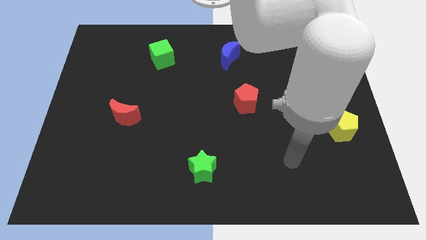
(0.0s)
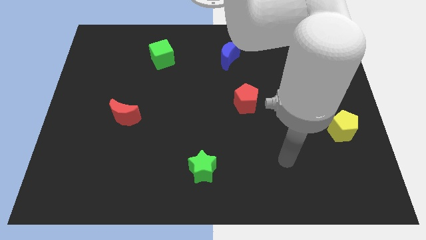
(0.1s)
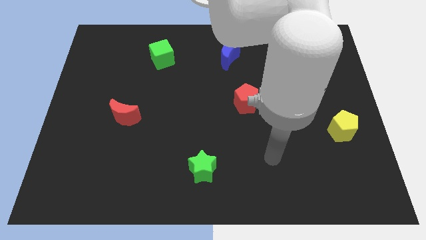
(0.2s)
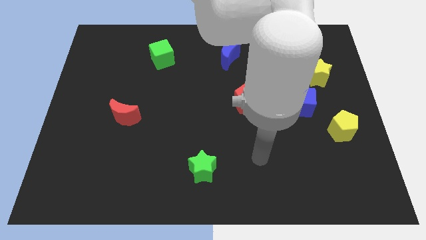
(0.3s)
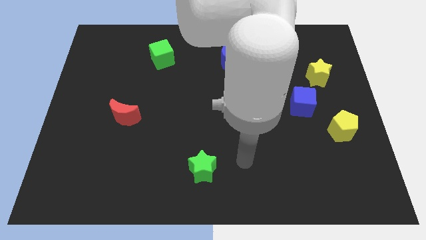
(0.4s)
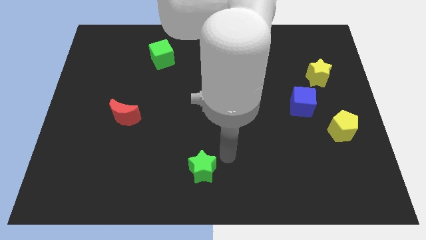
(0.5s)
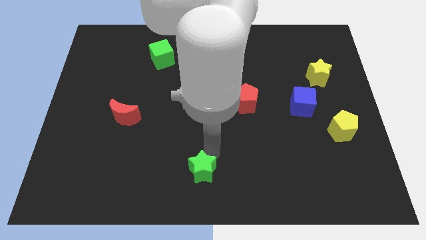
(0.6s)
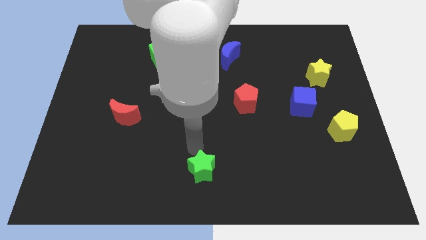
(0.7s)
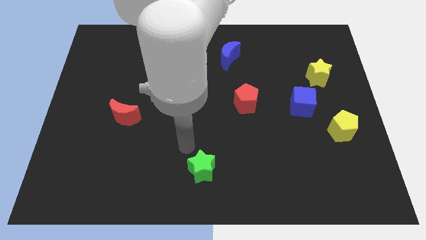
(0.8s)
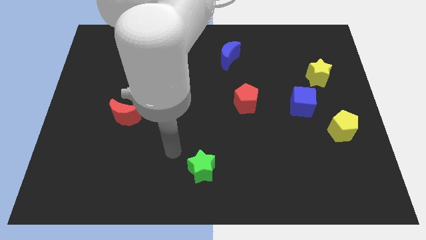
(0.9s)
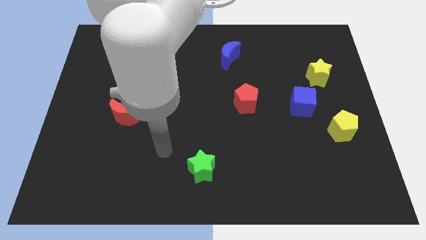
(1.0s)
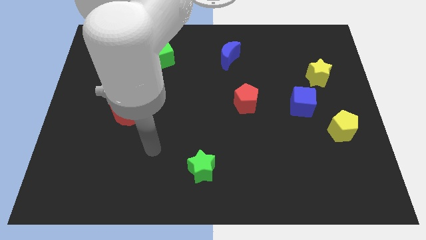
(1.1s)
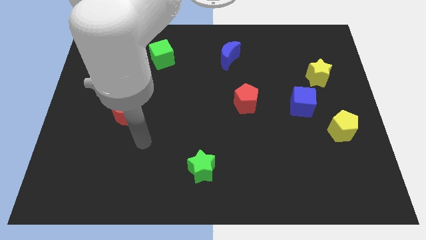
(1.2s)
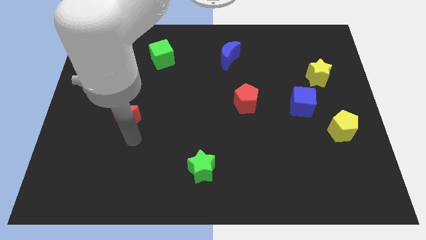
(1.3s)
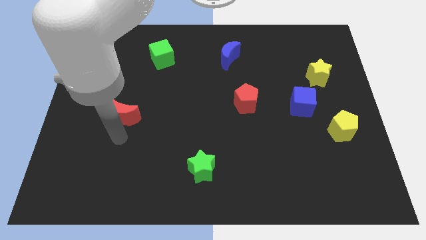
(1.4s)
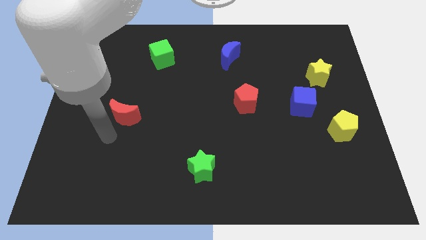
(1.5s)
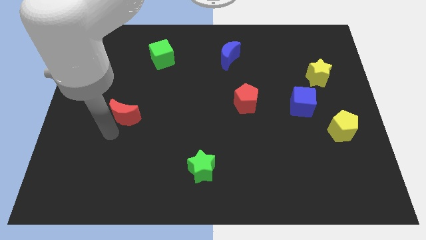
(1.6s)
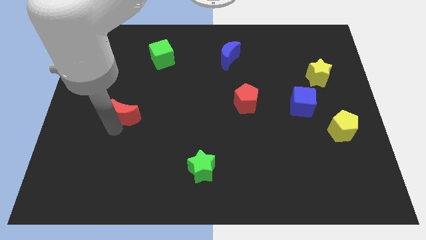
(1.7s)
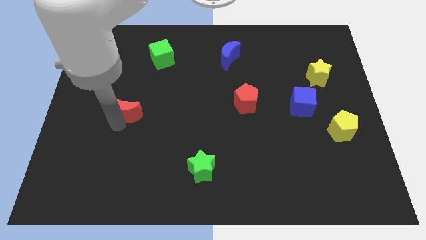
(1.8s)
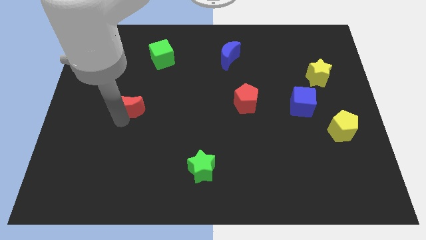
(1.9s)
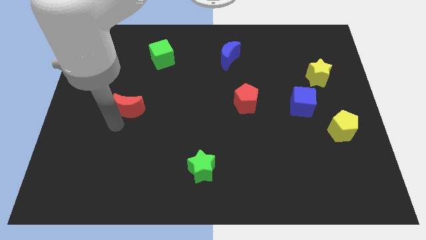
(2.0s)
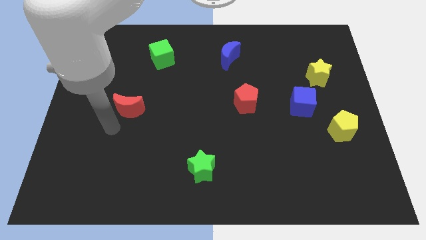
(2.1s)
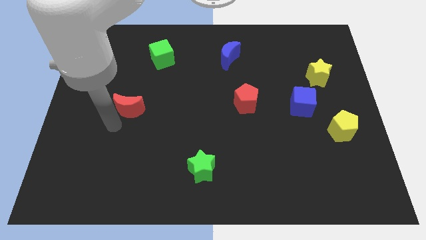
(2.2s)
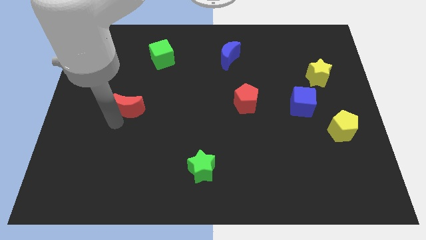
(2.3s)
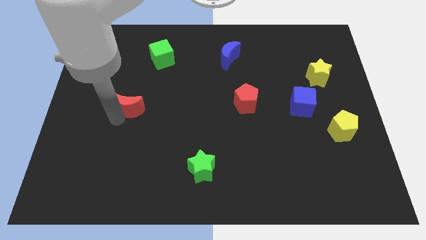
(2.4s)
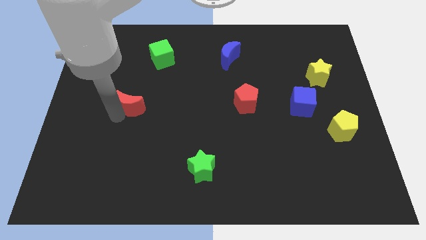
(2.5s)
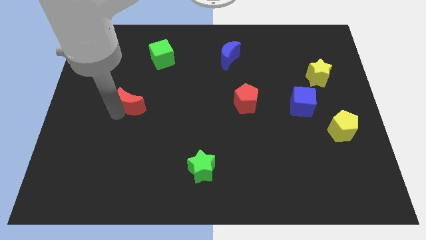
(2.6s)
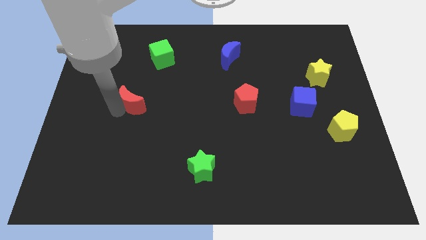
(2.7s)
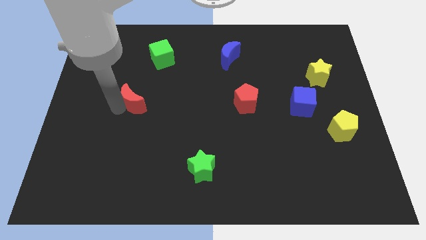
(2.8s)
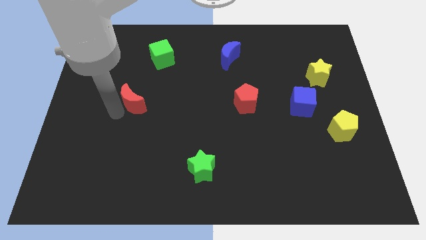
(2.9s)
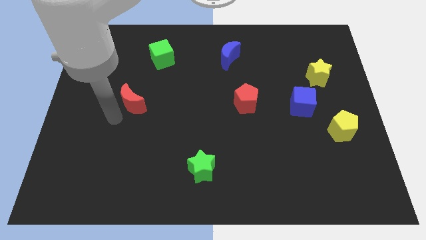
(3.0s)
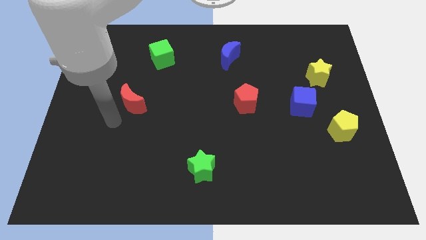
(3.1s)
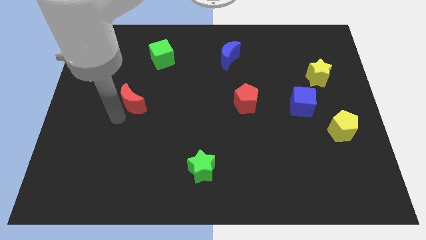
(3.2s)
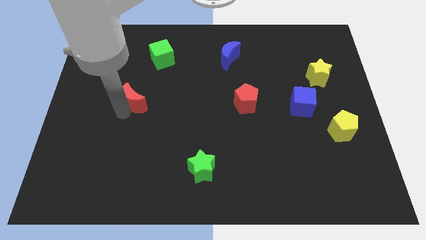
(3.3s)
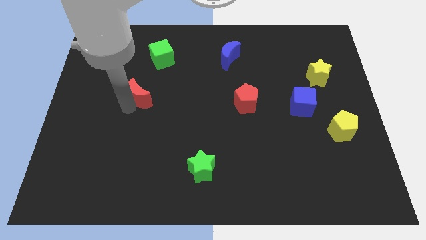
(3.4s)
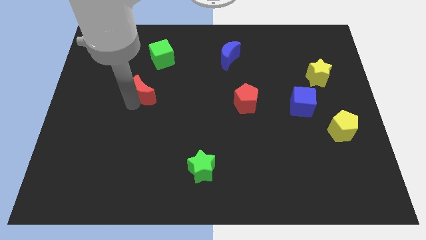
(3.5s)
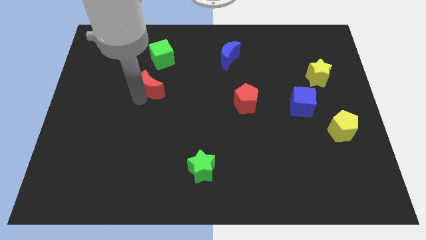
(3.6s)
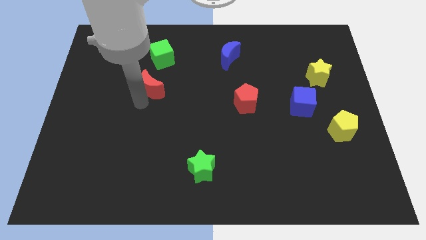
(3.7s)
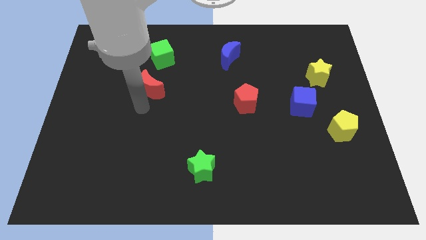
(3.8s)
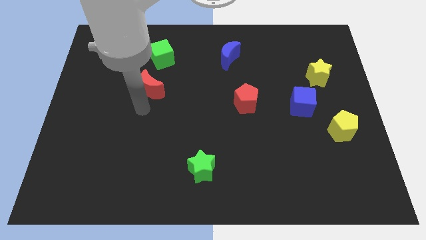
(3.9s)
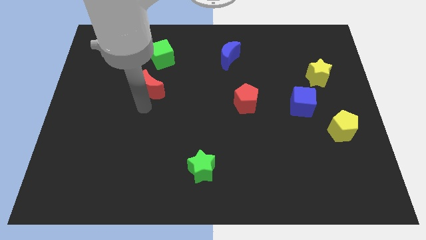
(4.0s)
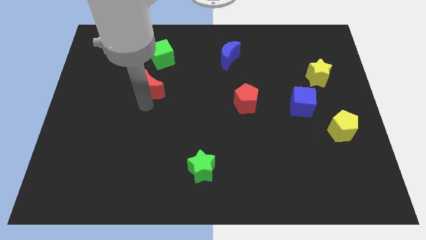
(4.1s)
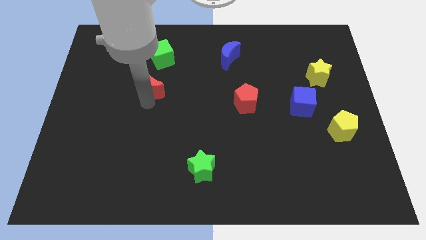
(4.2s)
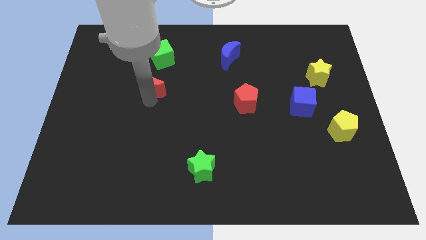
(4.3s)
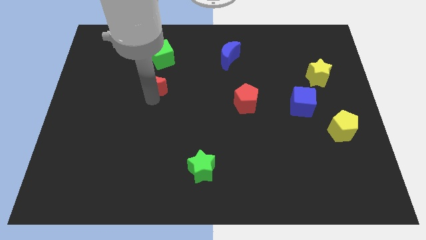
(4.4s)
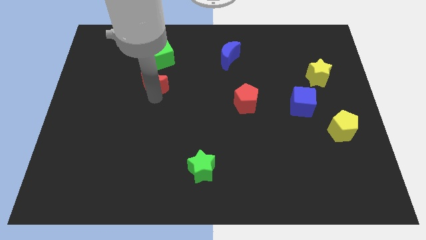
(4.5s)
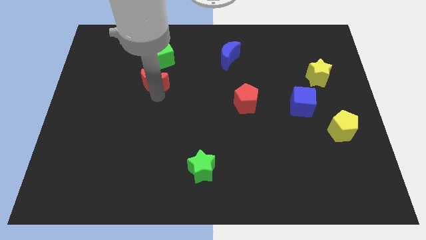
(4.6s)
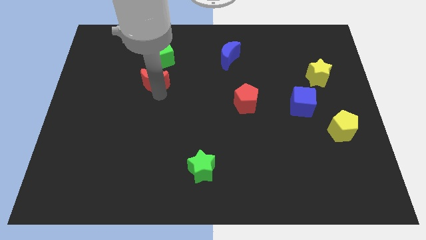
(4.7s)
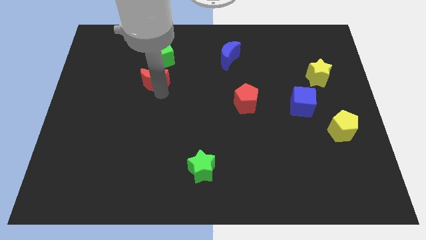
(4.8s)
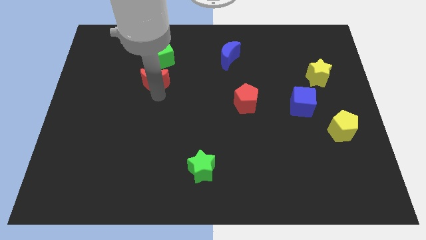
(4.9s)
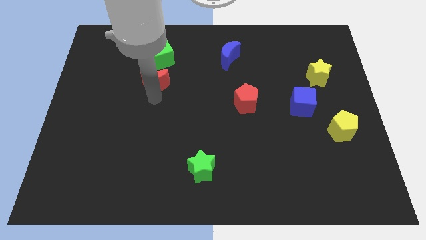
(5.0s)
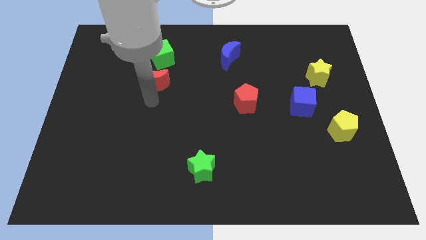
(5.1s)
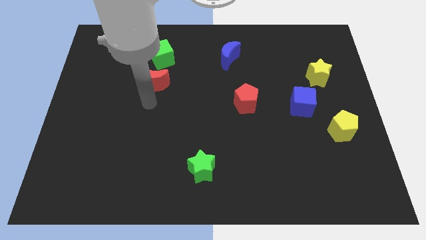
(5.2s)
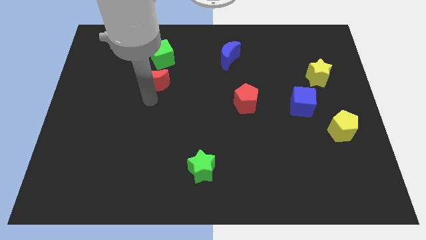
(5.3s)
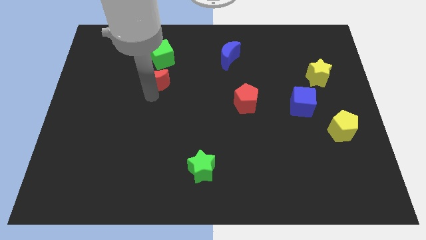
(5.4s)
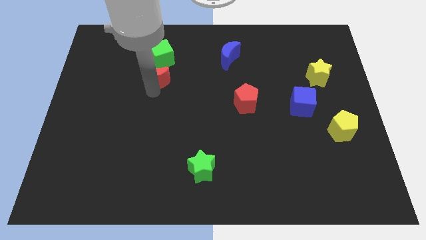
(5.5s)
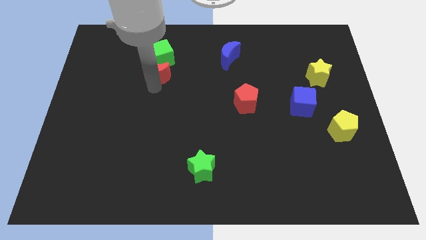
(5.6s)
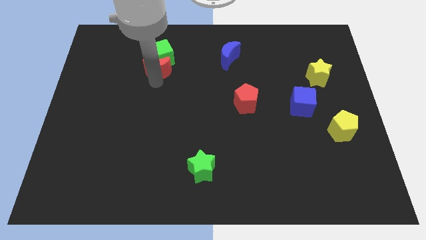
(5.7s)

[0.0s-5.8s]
push the red moon next to the green cube

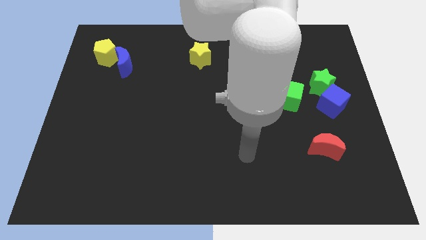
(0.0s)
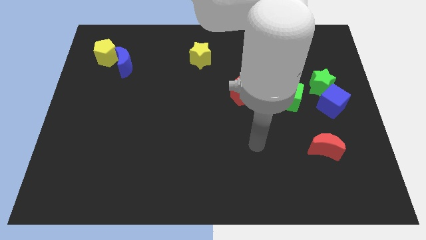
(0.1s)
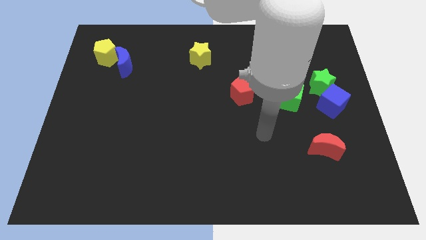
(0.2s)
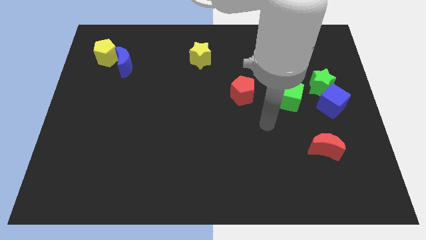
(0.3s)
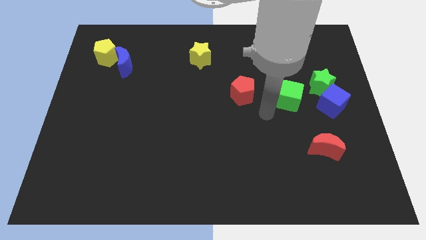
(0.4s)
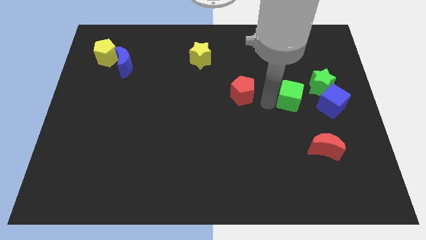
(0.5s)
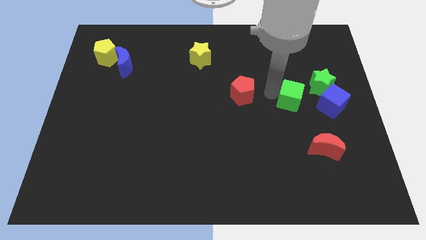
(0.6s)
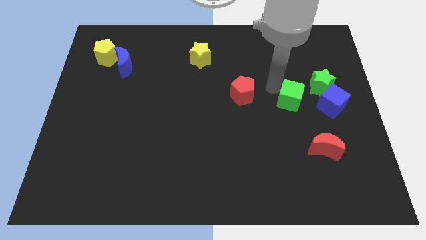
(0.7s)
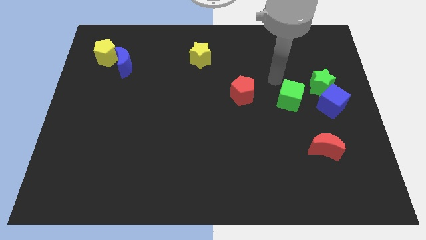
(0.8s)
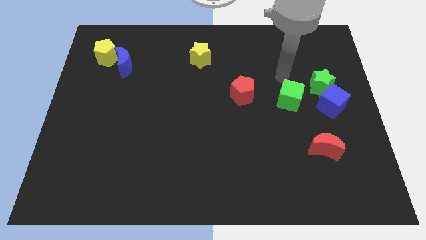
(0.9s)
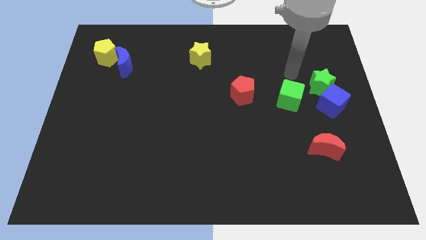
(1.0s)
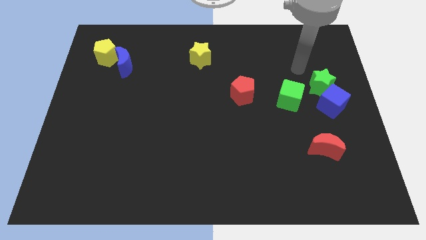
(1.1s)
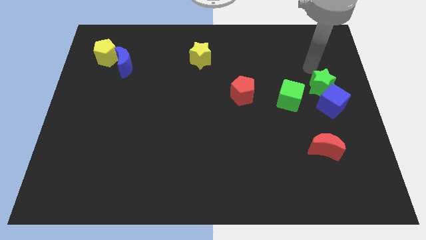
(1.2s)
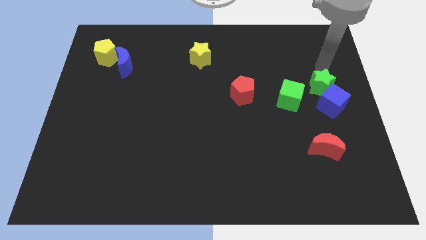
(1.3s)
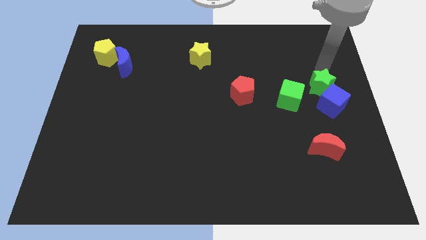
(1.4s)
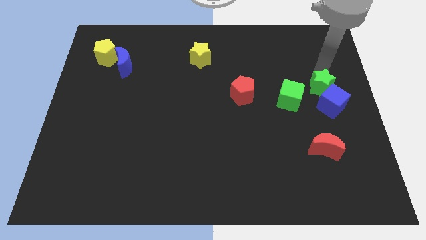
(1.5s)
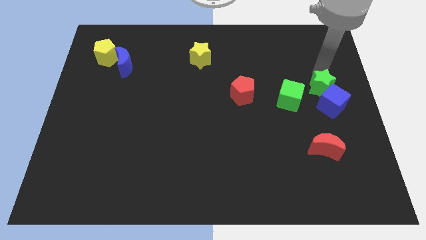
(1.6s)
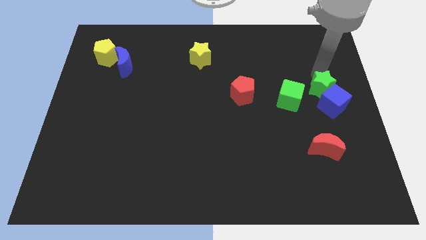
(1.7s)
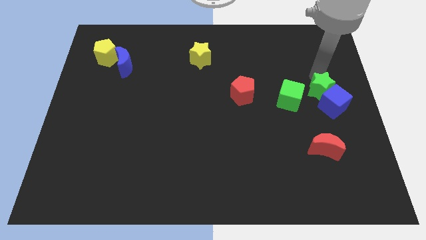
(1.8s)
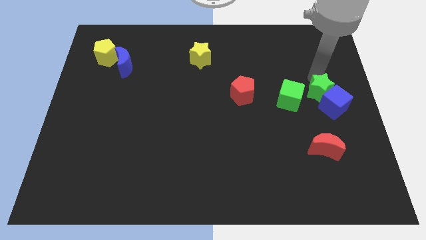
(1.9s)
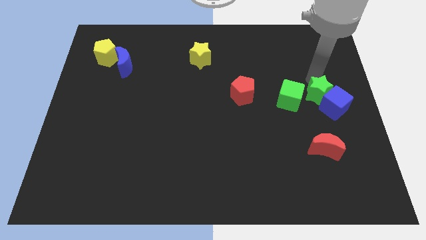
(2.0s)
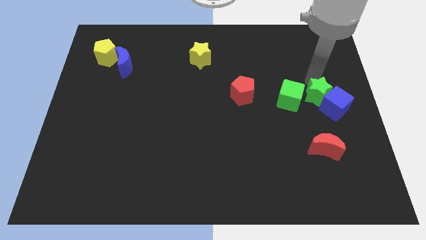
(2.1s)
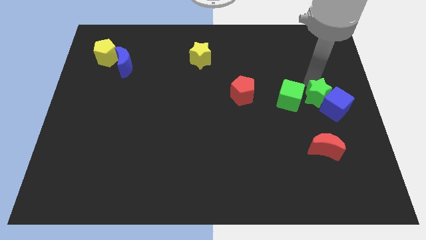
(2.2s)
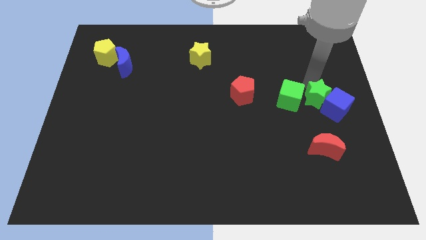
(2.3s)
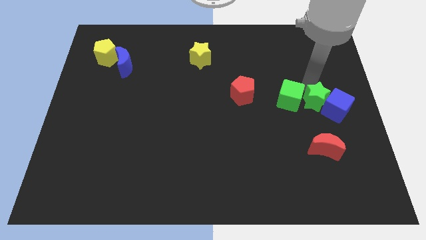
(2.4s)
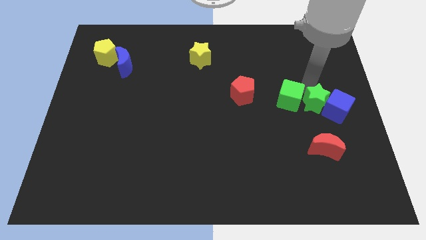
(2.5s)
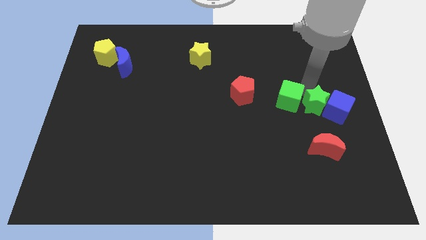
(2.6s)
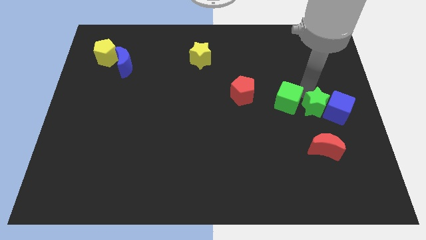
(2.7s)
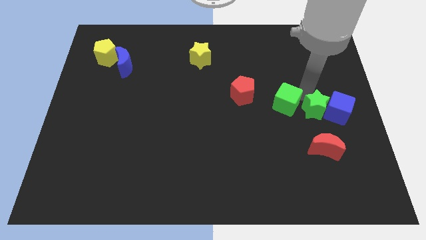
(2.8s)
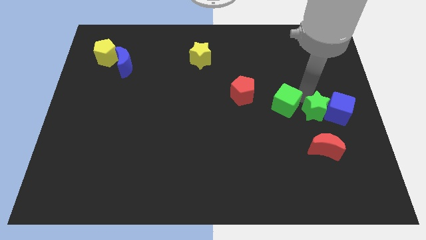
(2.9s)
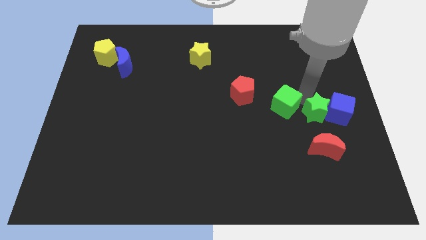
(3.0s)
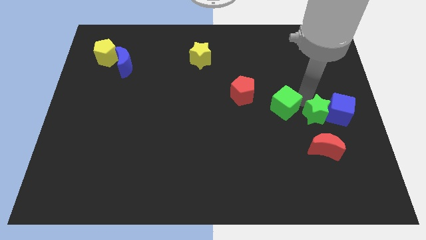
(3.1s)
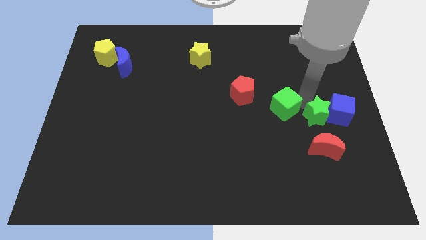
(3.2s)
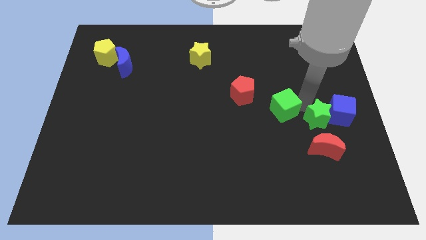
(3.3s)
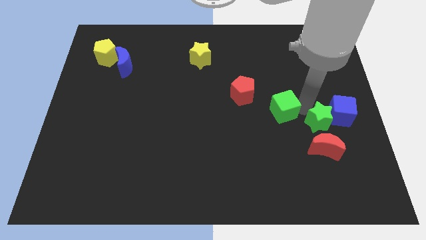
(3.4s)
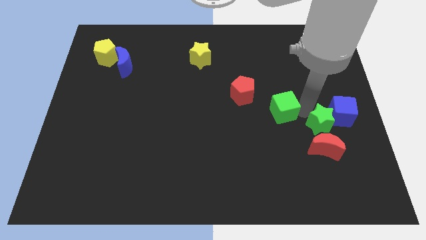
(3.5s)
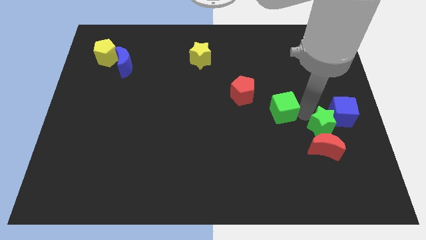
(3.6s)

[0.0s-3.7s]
push the green star towards the red moon
